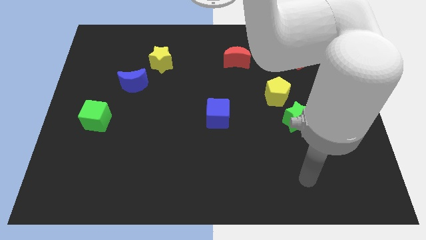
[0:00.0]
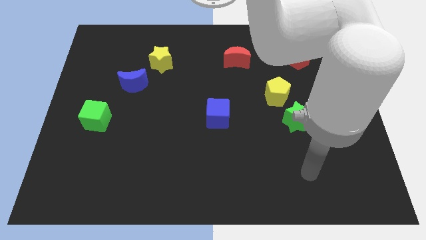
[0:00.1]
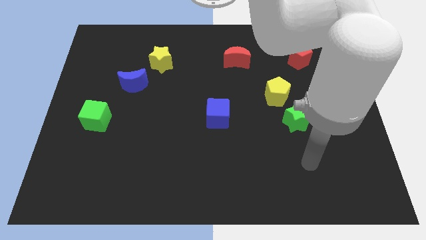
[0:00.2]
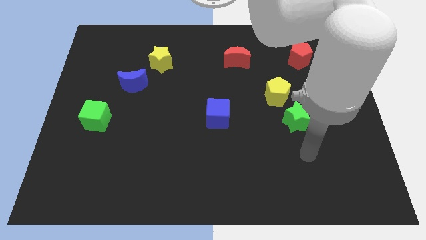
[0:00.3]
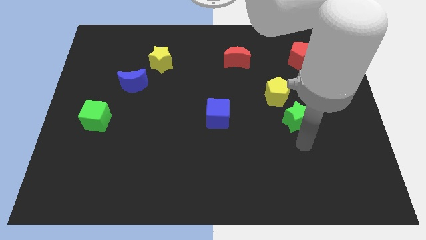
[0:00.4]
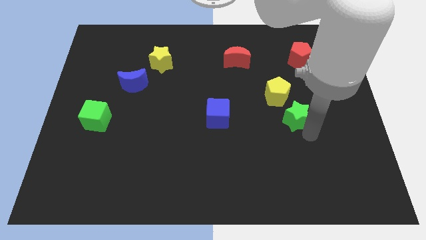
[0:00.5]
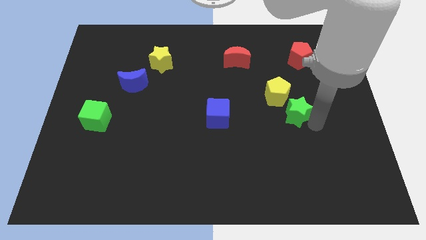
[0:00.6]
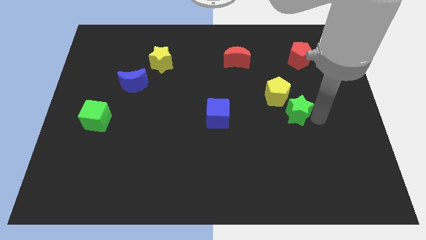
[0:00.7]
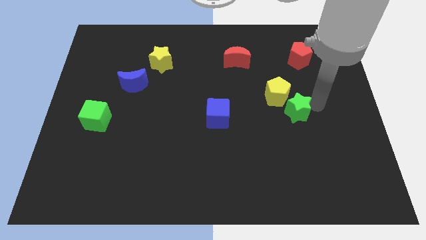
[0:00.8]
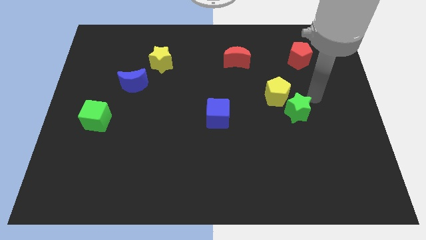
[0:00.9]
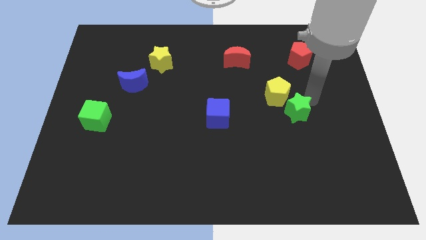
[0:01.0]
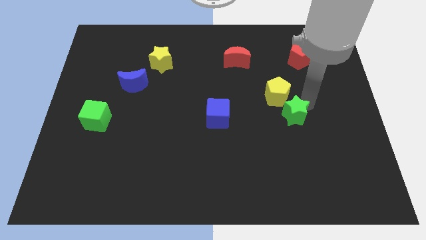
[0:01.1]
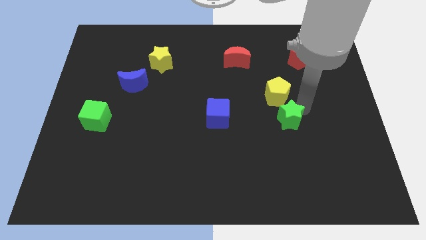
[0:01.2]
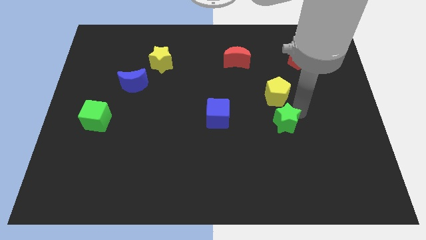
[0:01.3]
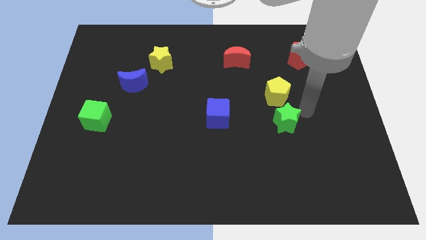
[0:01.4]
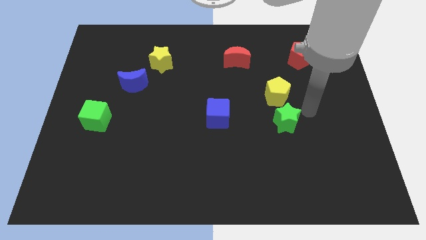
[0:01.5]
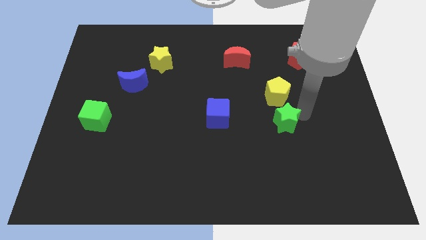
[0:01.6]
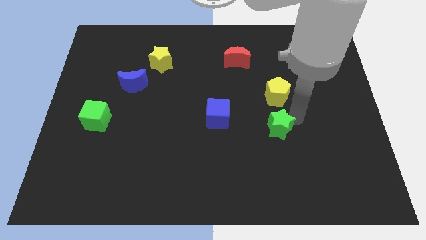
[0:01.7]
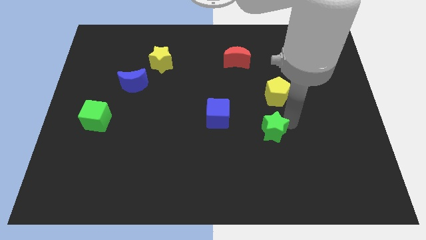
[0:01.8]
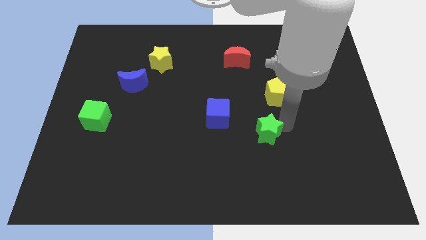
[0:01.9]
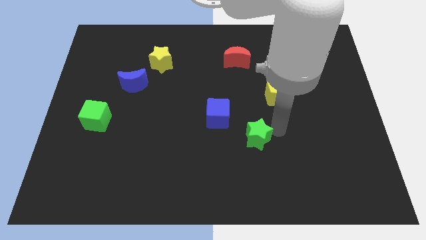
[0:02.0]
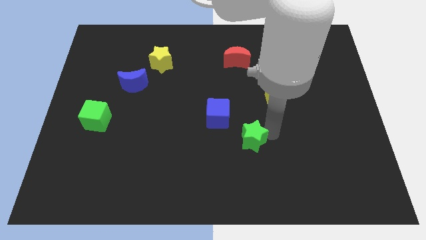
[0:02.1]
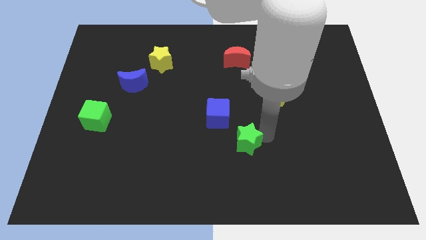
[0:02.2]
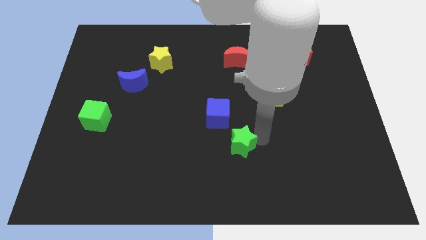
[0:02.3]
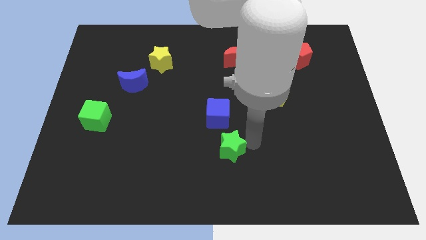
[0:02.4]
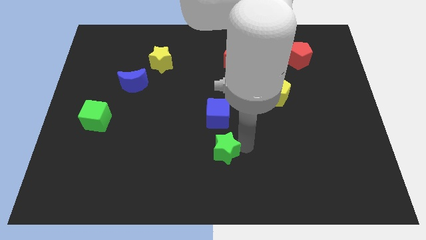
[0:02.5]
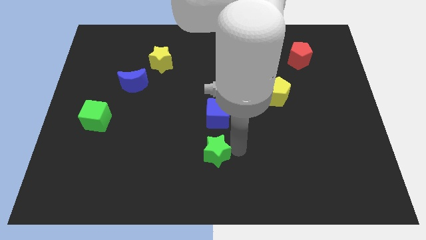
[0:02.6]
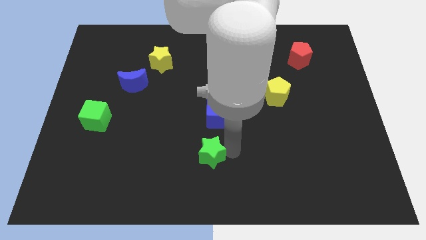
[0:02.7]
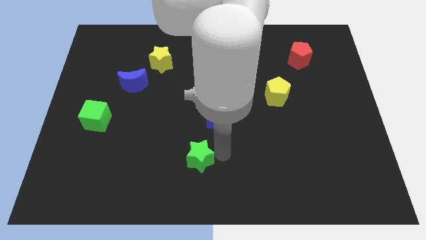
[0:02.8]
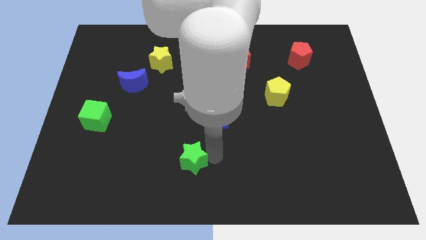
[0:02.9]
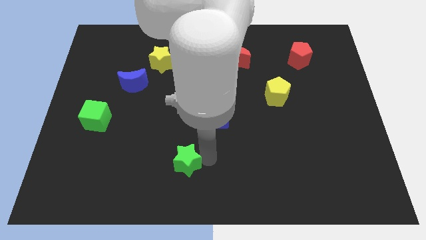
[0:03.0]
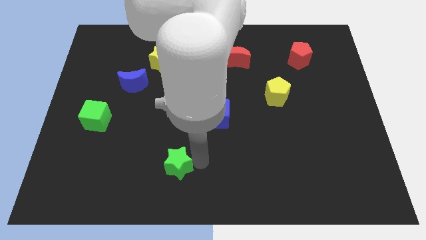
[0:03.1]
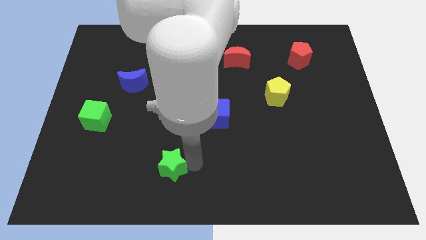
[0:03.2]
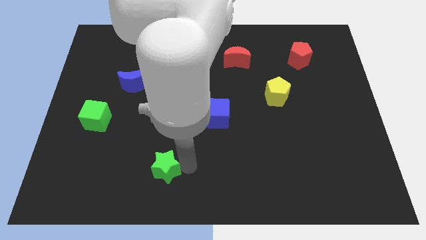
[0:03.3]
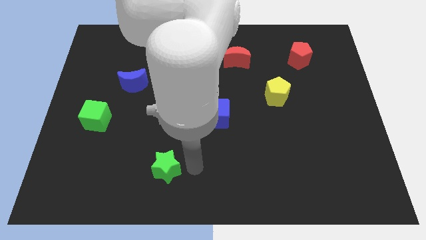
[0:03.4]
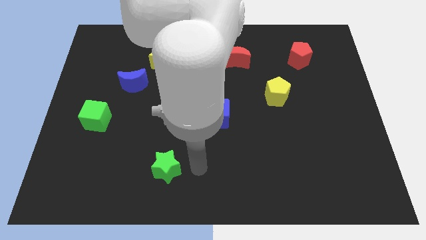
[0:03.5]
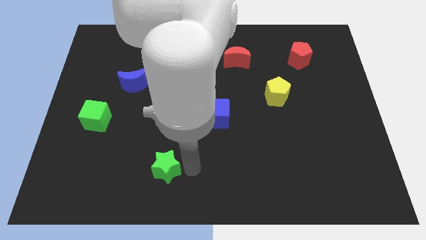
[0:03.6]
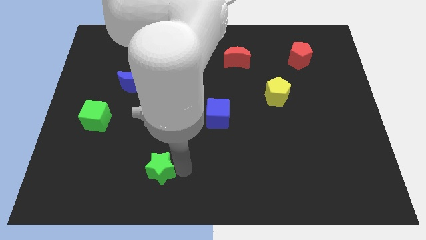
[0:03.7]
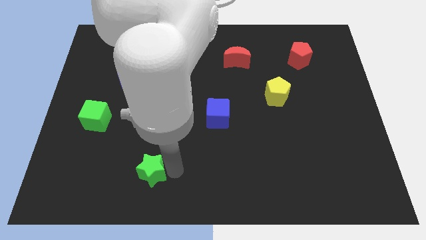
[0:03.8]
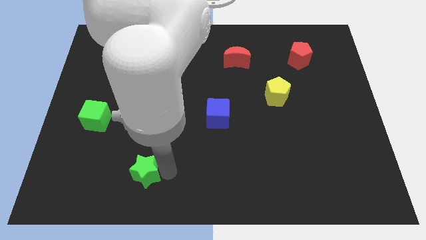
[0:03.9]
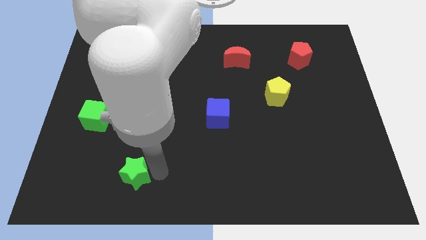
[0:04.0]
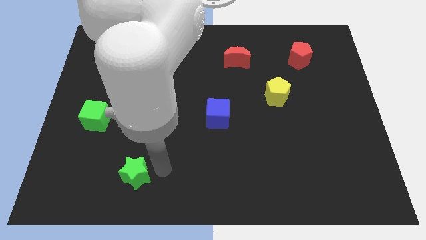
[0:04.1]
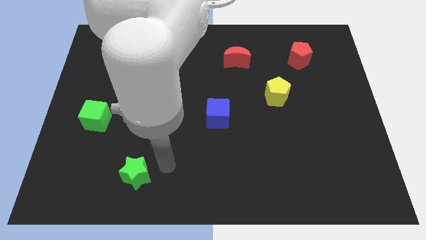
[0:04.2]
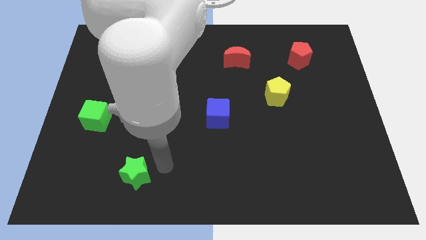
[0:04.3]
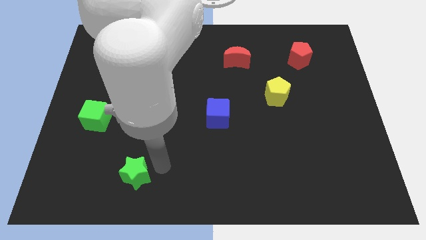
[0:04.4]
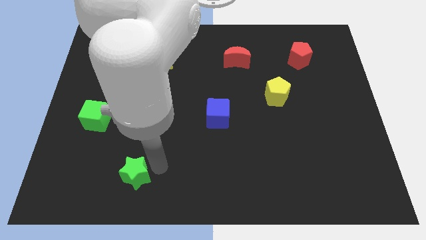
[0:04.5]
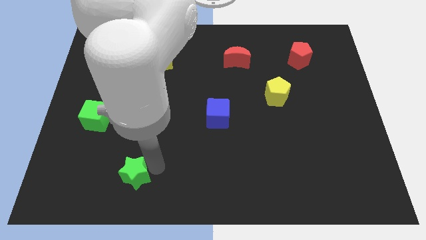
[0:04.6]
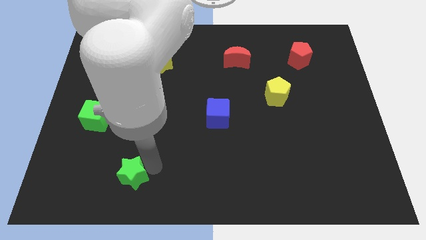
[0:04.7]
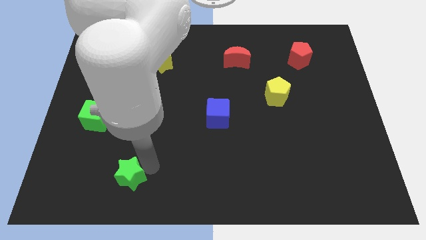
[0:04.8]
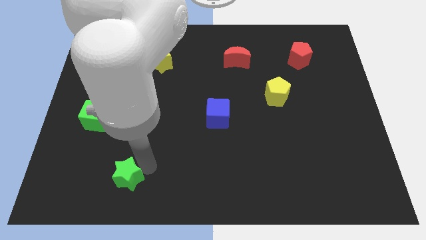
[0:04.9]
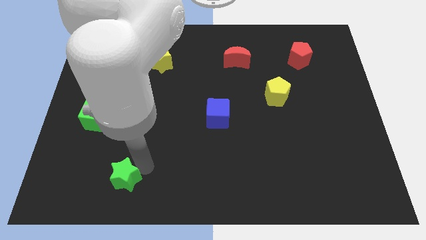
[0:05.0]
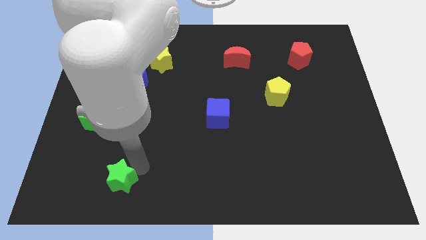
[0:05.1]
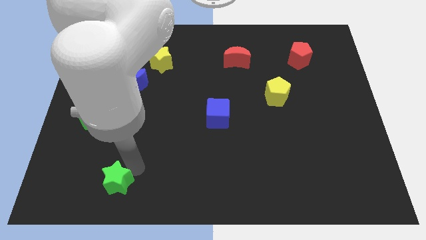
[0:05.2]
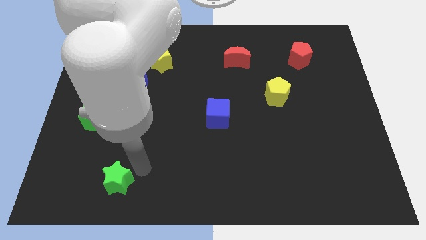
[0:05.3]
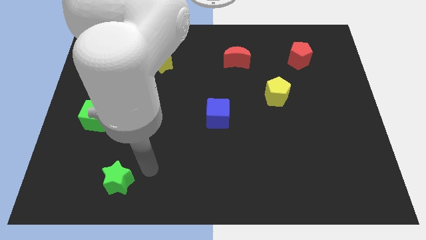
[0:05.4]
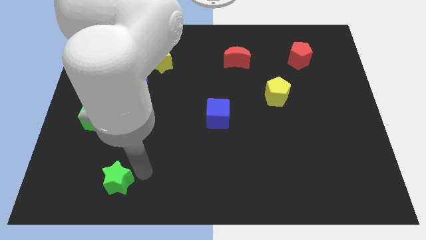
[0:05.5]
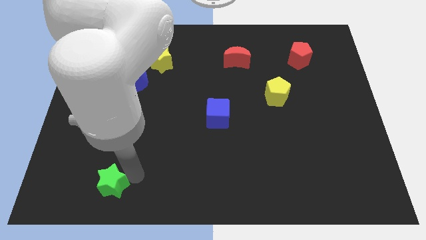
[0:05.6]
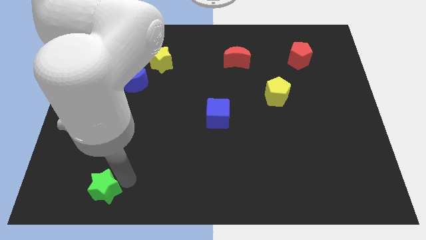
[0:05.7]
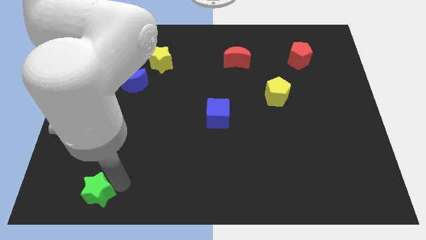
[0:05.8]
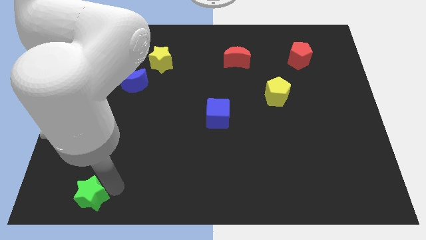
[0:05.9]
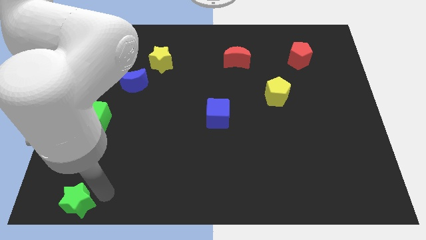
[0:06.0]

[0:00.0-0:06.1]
push the green star to the bottom left
